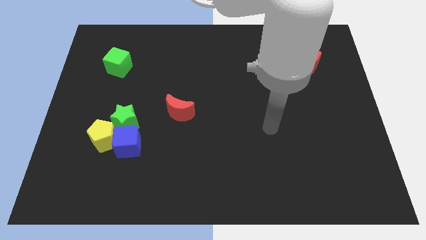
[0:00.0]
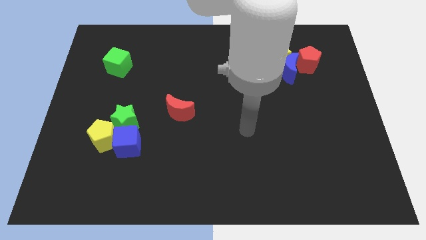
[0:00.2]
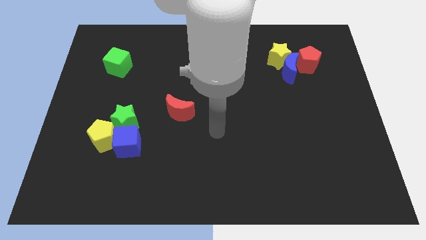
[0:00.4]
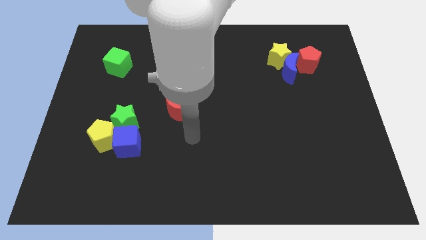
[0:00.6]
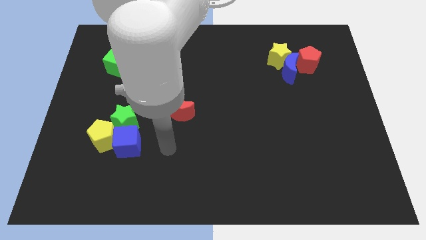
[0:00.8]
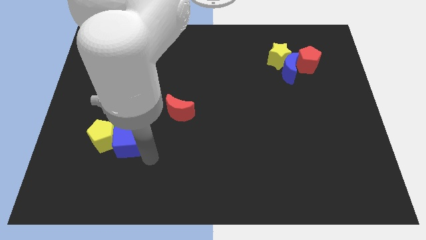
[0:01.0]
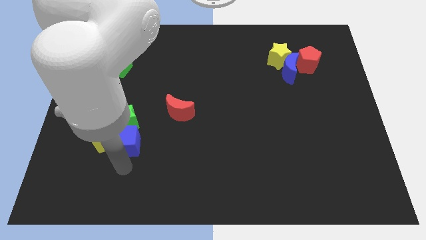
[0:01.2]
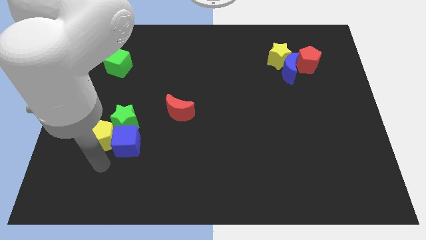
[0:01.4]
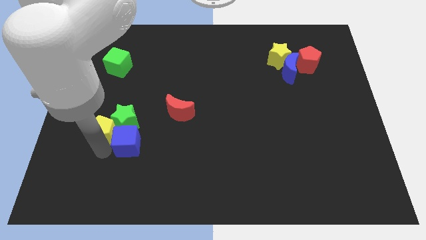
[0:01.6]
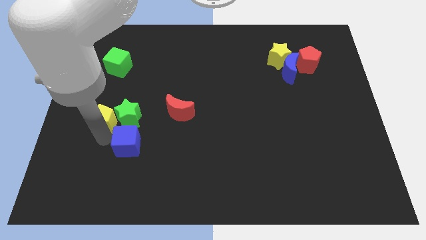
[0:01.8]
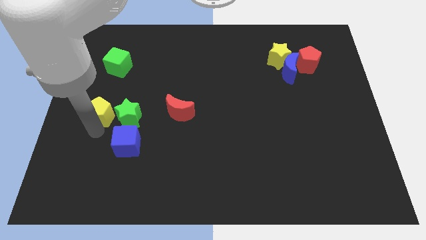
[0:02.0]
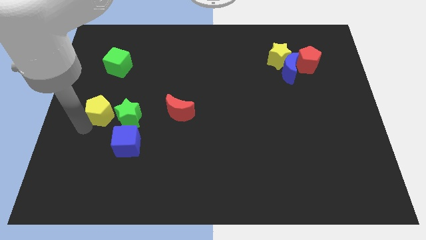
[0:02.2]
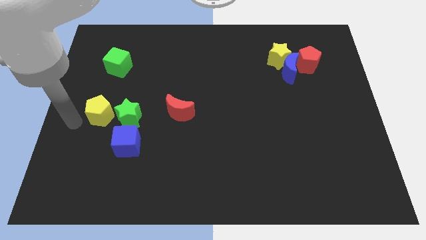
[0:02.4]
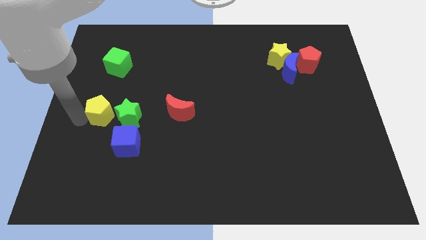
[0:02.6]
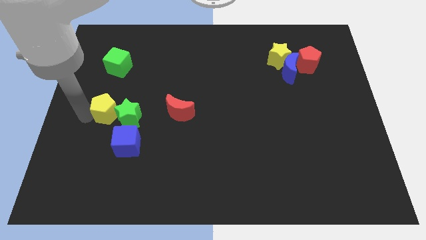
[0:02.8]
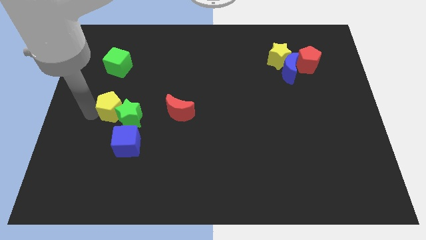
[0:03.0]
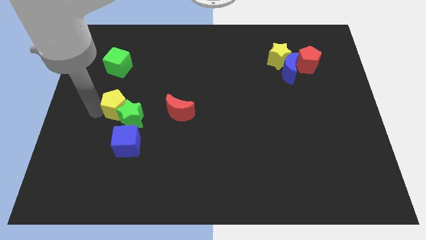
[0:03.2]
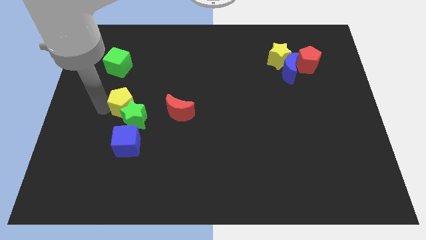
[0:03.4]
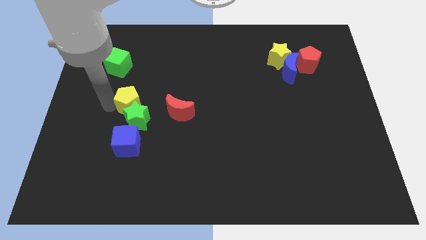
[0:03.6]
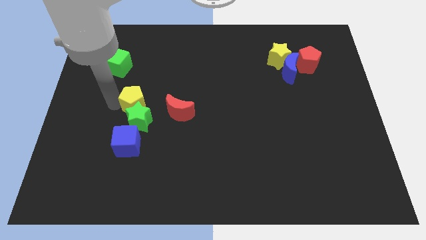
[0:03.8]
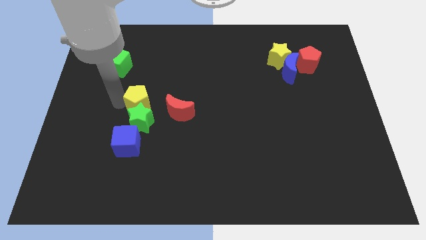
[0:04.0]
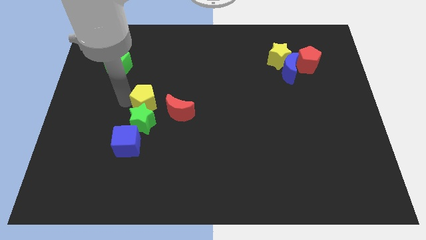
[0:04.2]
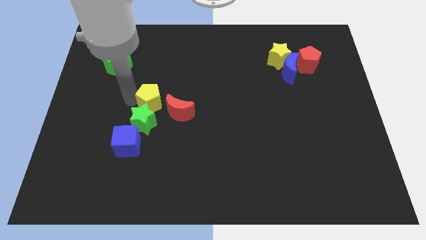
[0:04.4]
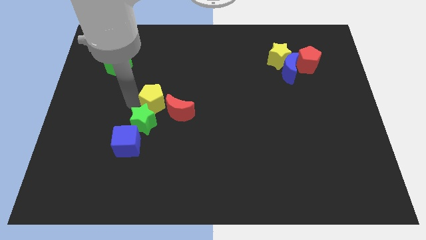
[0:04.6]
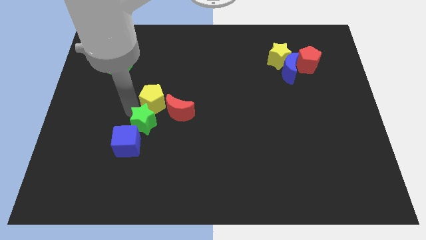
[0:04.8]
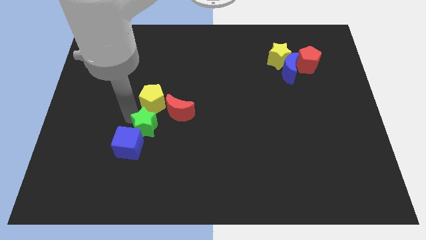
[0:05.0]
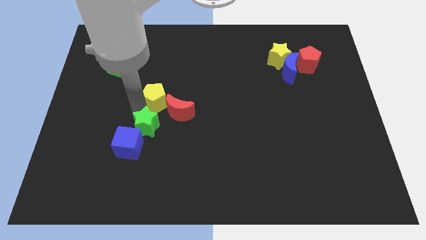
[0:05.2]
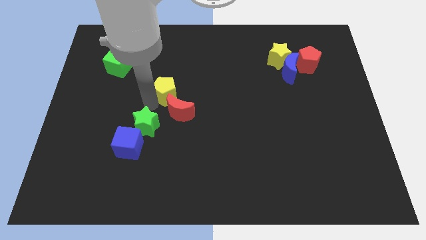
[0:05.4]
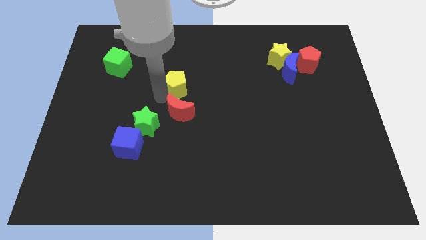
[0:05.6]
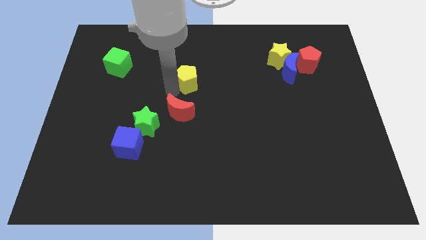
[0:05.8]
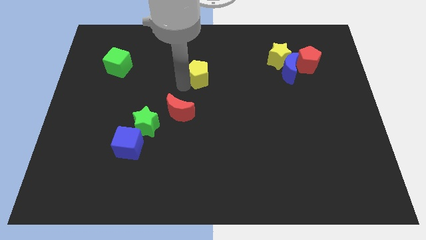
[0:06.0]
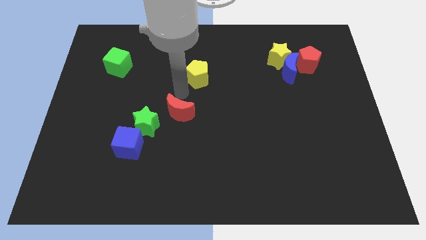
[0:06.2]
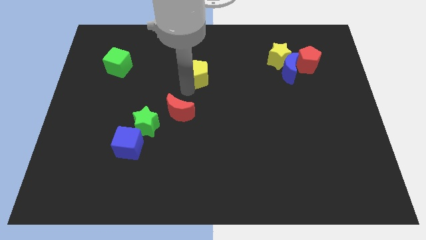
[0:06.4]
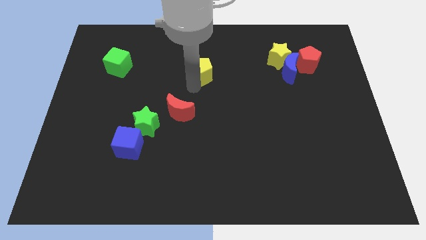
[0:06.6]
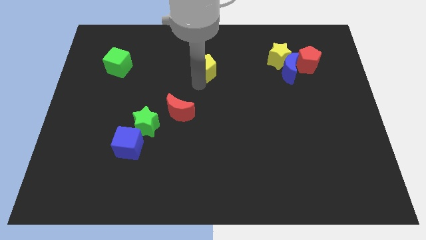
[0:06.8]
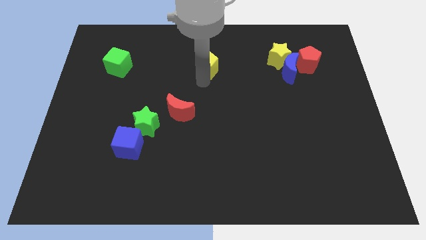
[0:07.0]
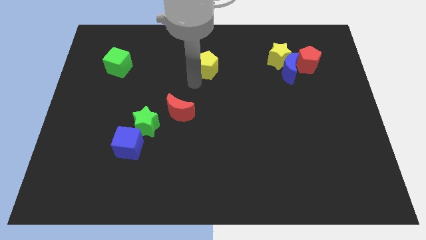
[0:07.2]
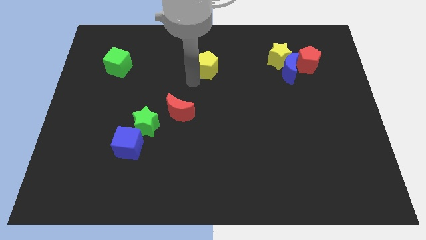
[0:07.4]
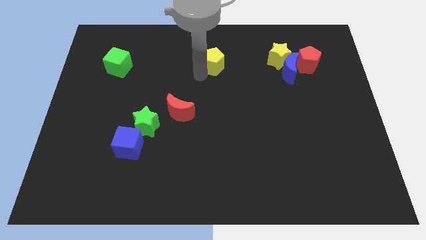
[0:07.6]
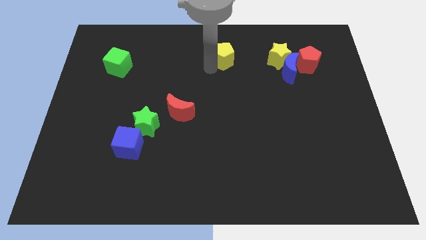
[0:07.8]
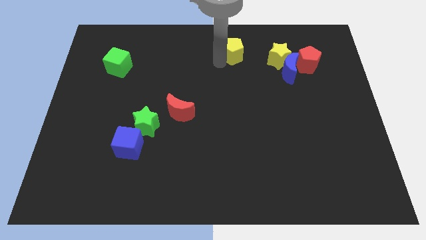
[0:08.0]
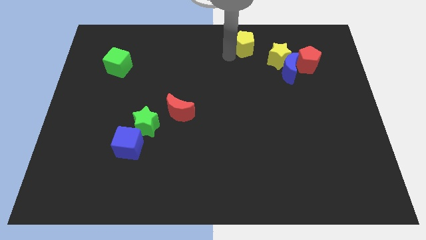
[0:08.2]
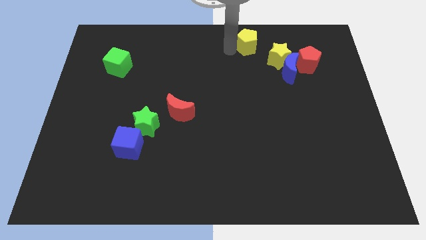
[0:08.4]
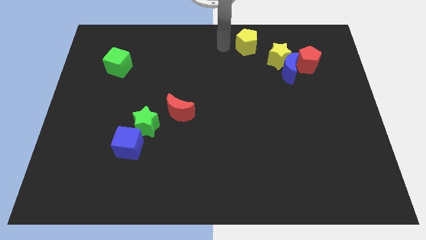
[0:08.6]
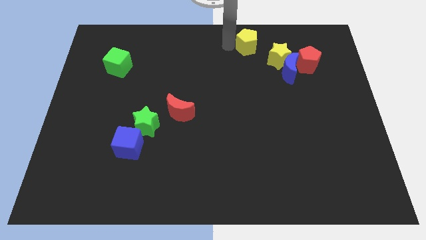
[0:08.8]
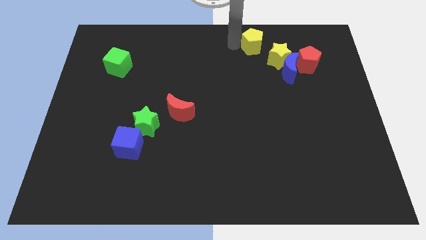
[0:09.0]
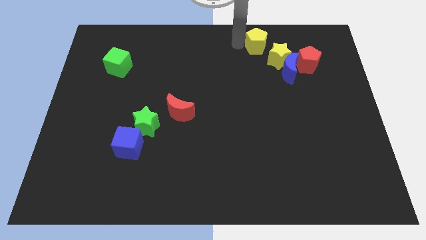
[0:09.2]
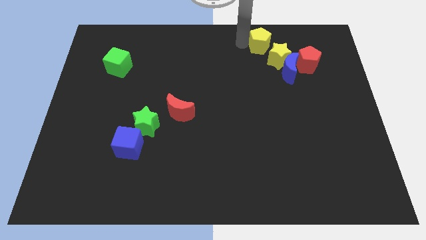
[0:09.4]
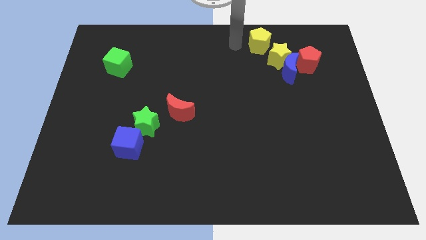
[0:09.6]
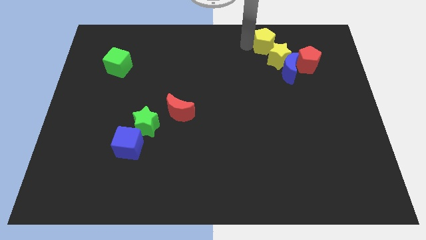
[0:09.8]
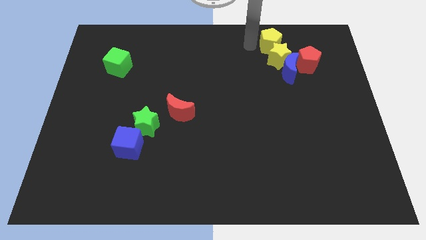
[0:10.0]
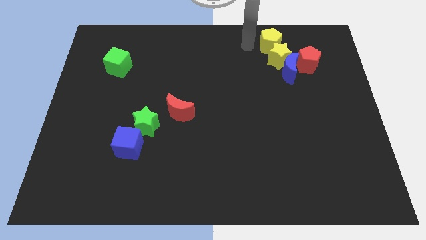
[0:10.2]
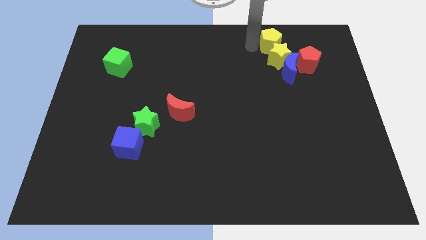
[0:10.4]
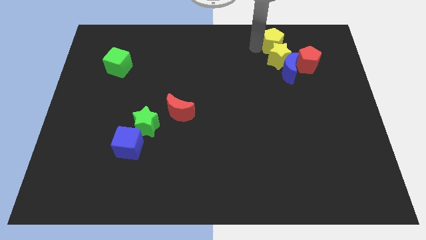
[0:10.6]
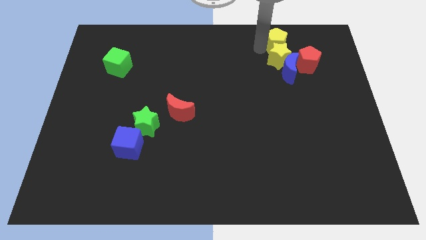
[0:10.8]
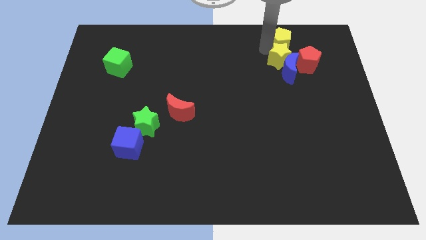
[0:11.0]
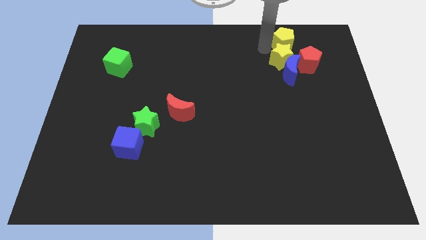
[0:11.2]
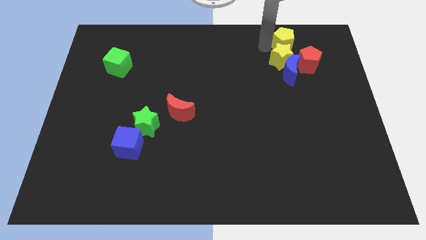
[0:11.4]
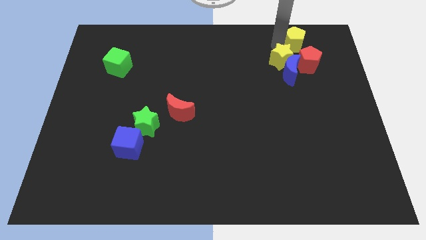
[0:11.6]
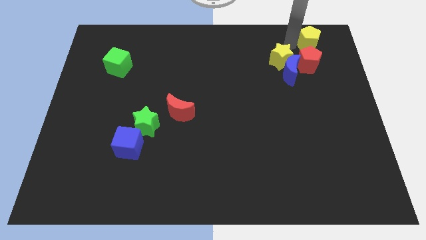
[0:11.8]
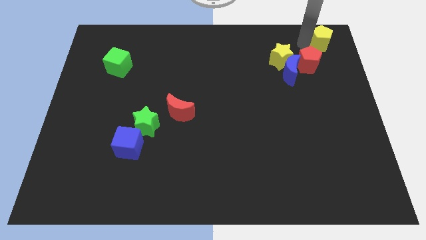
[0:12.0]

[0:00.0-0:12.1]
put the yellow pentagon to the top right

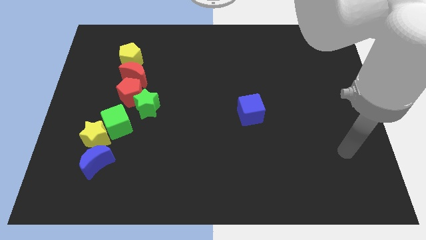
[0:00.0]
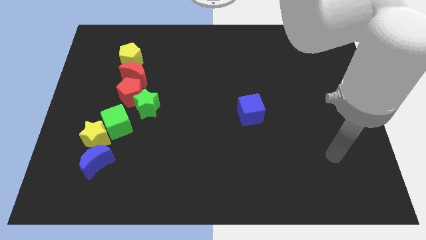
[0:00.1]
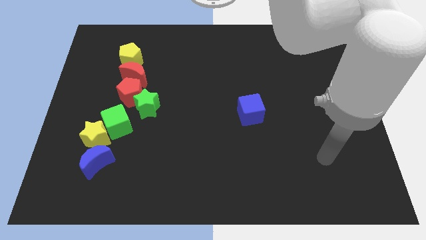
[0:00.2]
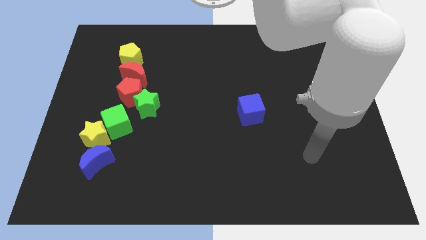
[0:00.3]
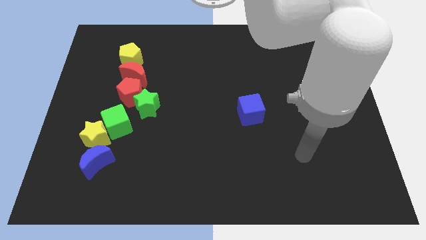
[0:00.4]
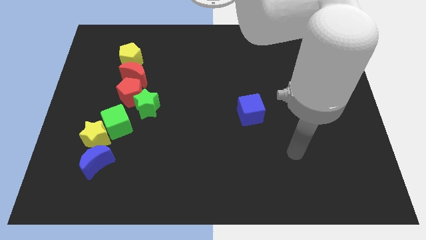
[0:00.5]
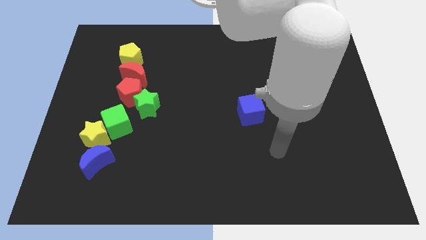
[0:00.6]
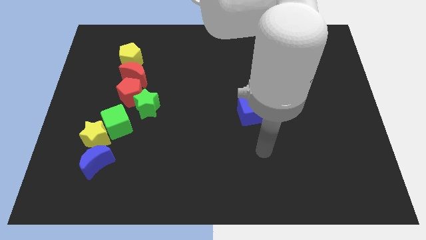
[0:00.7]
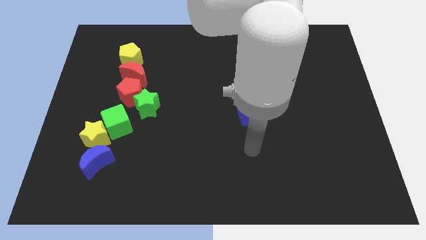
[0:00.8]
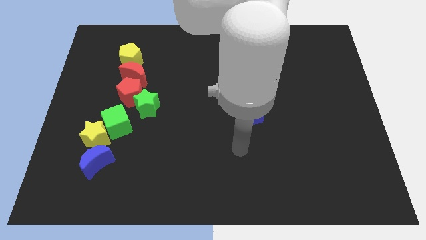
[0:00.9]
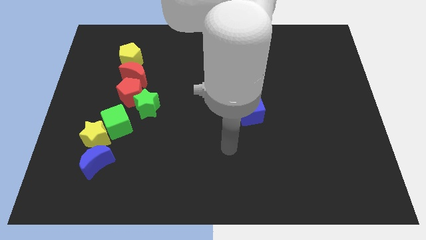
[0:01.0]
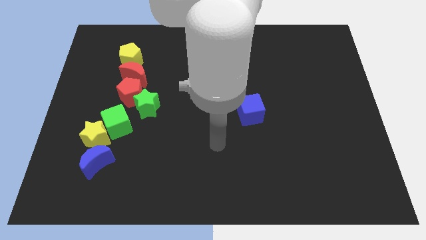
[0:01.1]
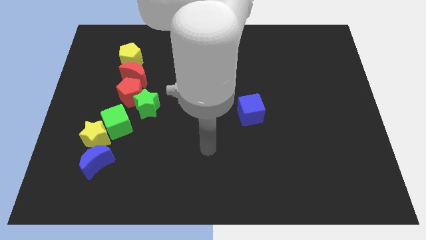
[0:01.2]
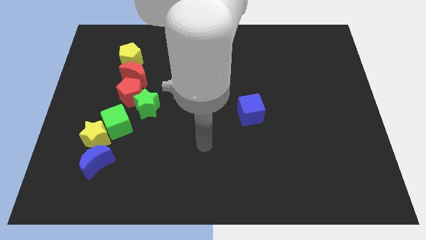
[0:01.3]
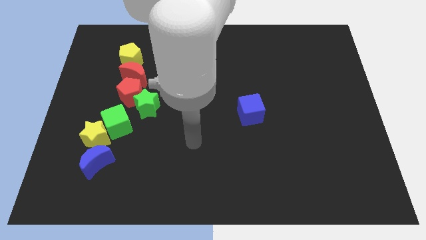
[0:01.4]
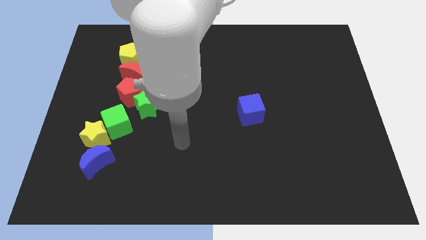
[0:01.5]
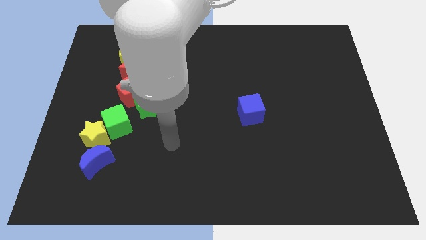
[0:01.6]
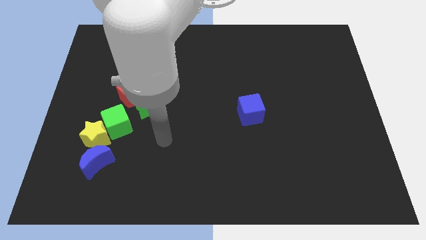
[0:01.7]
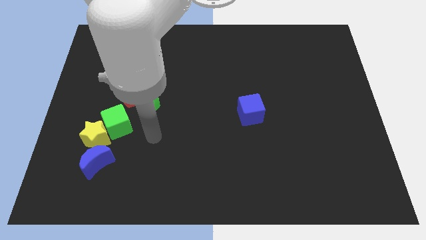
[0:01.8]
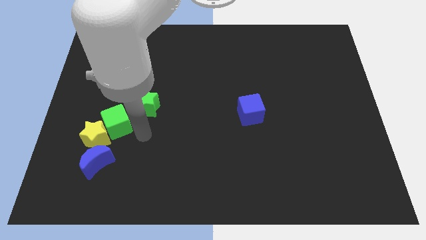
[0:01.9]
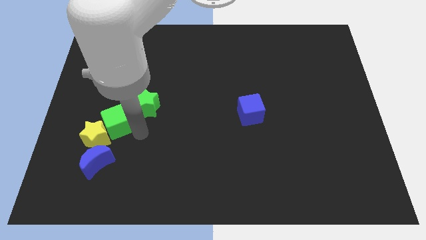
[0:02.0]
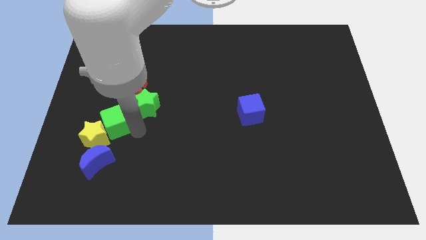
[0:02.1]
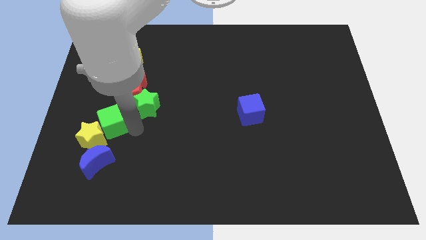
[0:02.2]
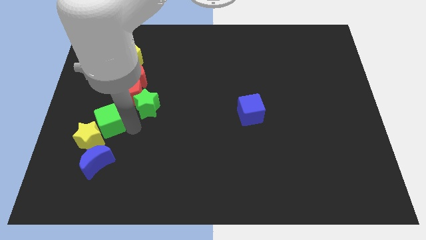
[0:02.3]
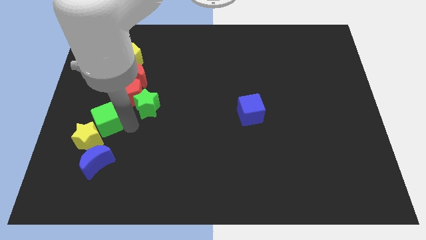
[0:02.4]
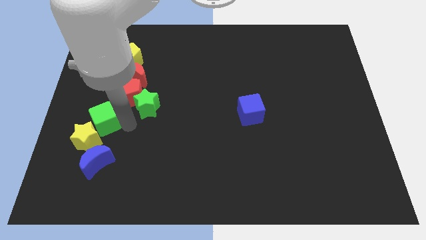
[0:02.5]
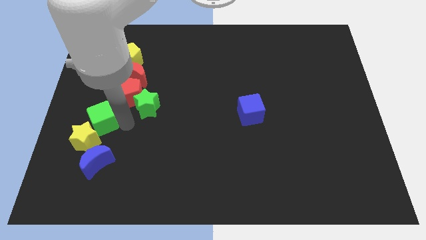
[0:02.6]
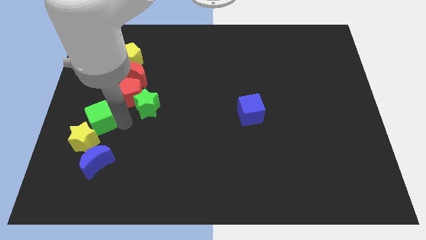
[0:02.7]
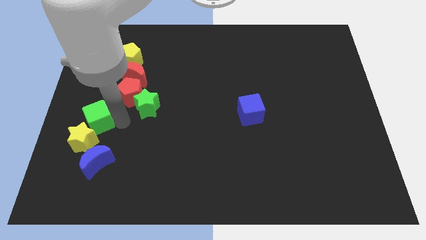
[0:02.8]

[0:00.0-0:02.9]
move the green cube to the left side of the board
